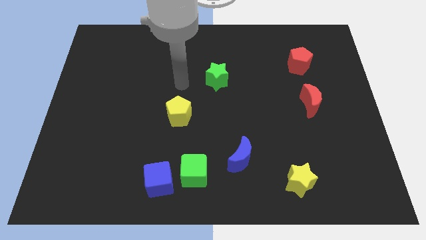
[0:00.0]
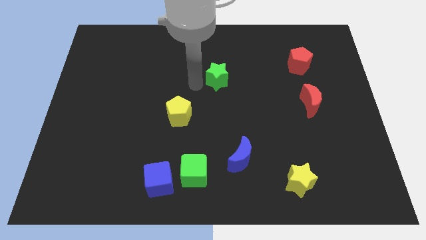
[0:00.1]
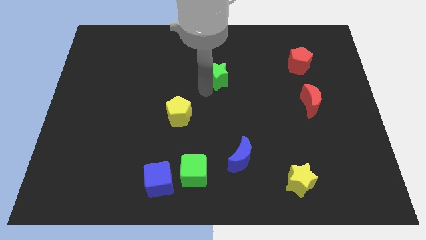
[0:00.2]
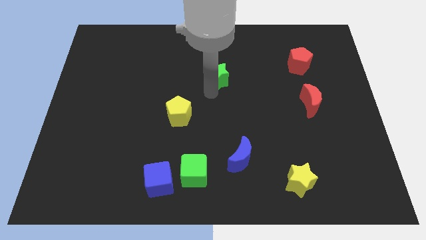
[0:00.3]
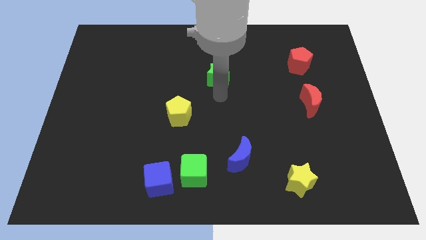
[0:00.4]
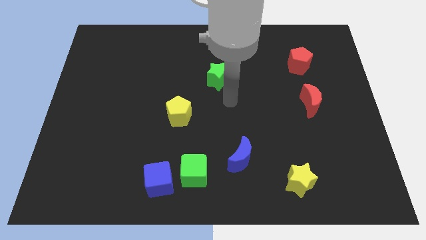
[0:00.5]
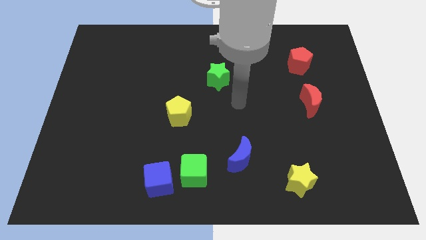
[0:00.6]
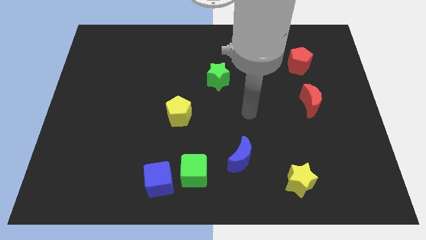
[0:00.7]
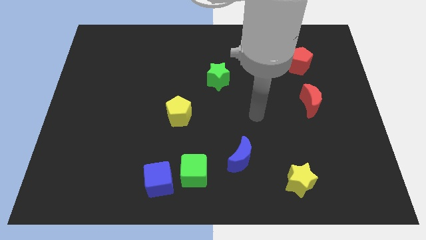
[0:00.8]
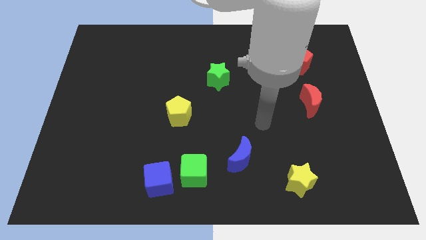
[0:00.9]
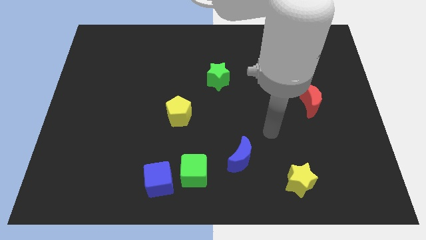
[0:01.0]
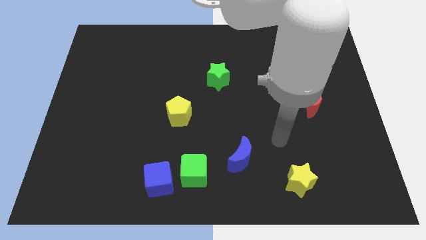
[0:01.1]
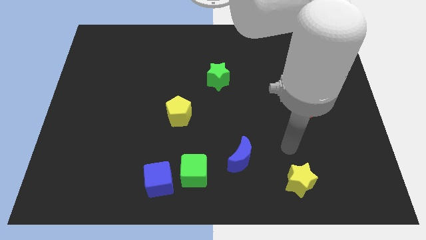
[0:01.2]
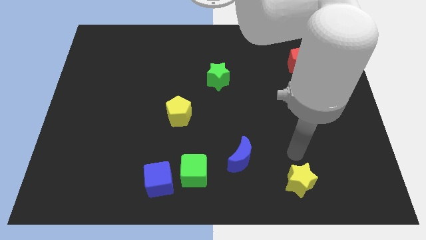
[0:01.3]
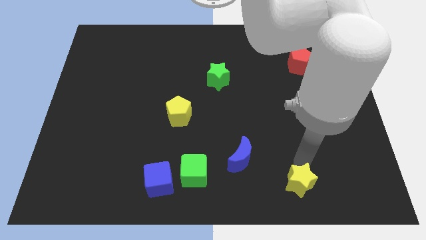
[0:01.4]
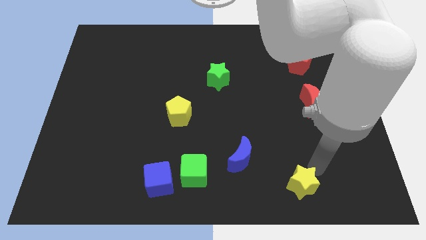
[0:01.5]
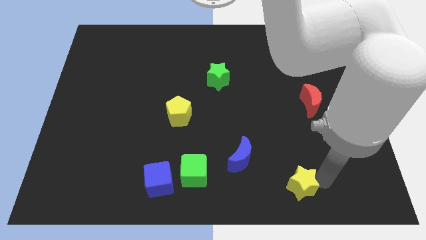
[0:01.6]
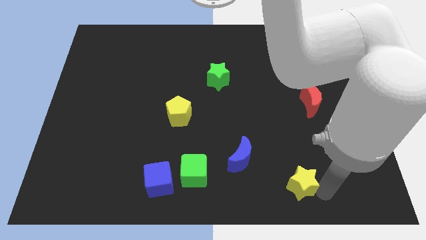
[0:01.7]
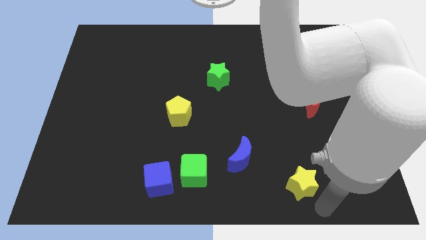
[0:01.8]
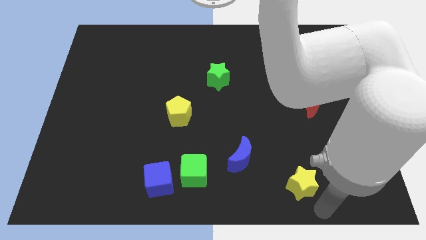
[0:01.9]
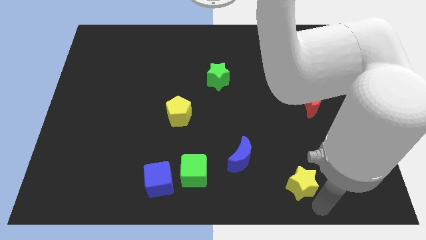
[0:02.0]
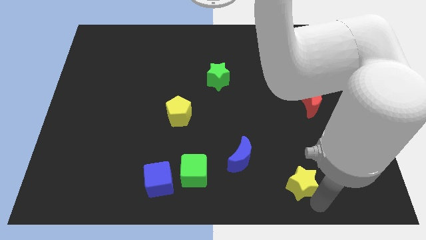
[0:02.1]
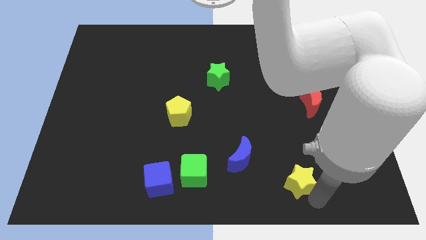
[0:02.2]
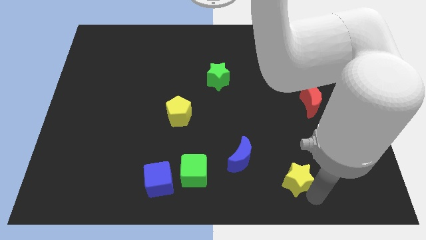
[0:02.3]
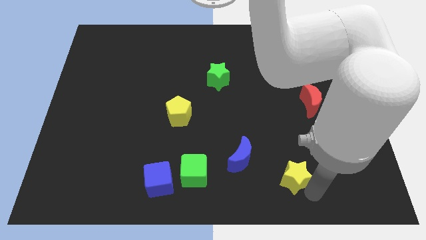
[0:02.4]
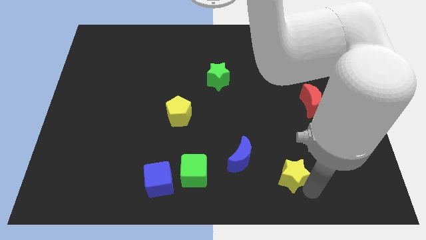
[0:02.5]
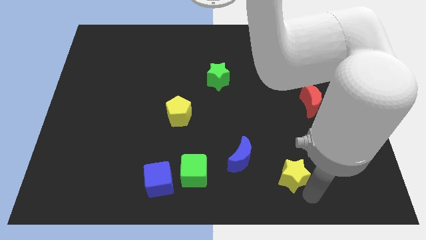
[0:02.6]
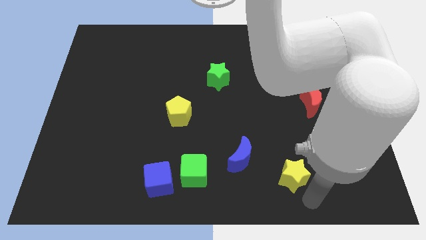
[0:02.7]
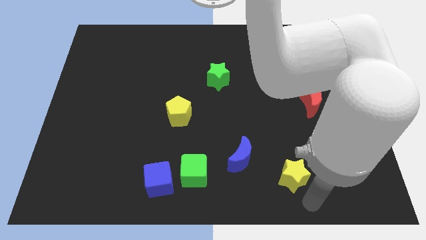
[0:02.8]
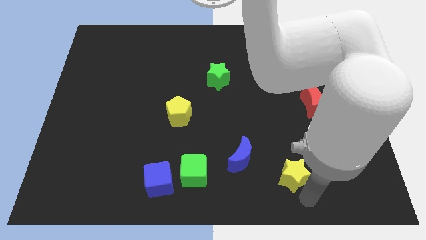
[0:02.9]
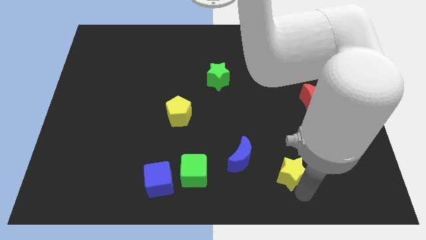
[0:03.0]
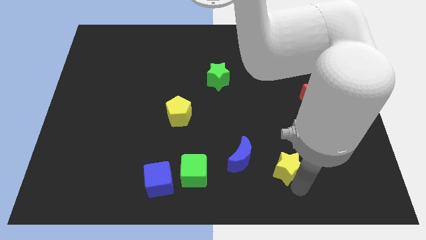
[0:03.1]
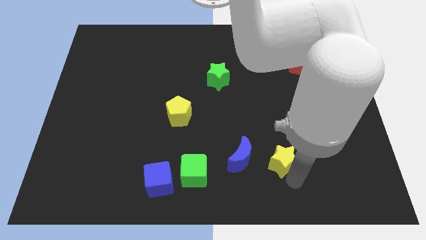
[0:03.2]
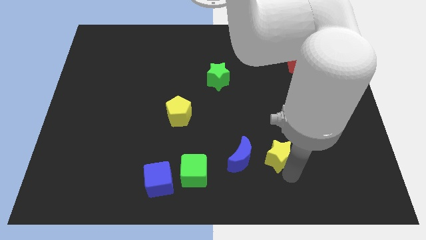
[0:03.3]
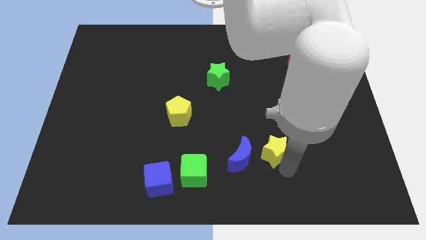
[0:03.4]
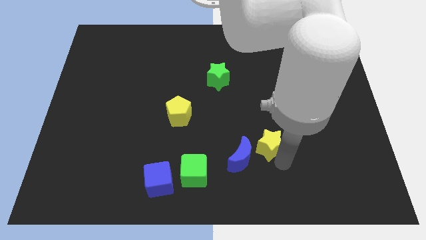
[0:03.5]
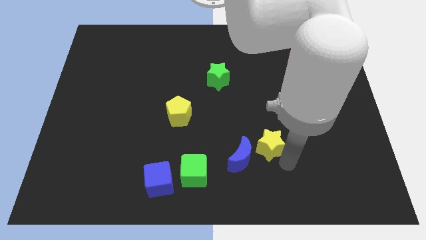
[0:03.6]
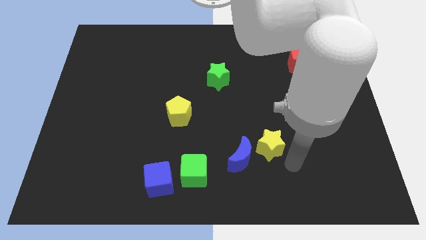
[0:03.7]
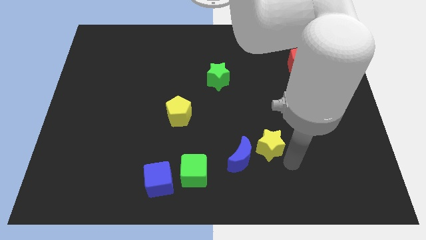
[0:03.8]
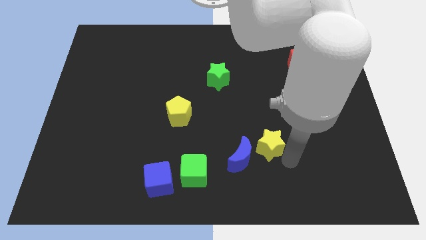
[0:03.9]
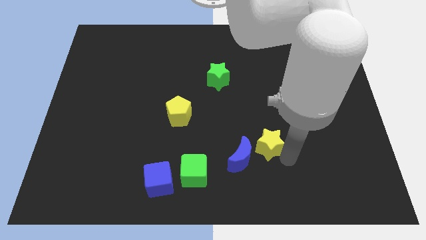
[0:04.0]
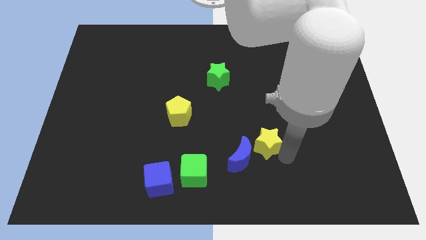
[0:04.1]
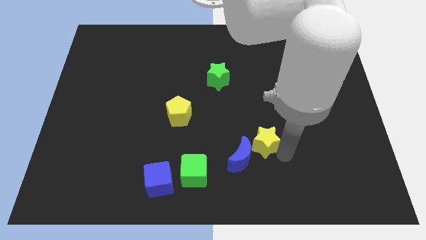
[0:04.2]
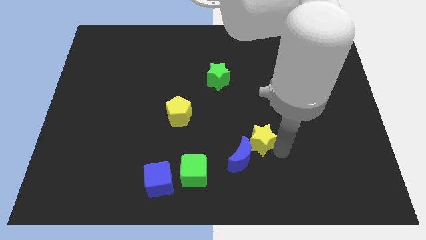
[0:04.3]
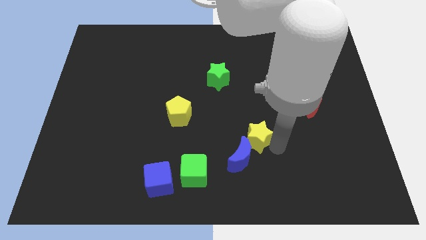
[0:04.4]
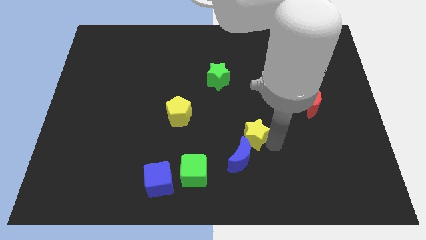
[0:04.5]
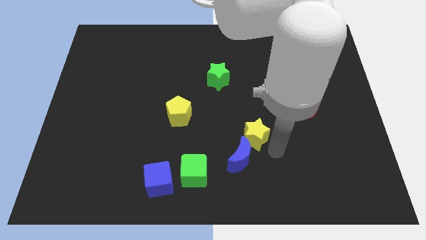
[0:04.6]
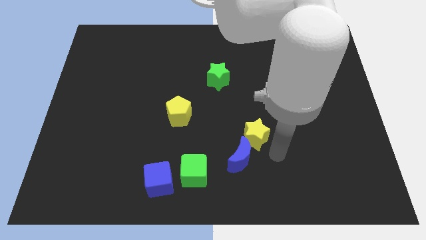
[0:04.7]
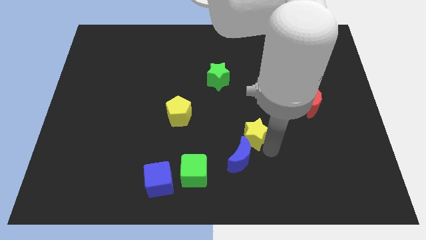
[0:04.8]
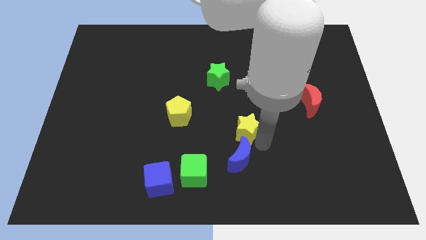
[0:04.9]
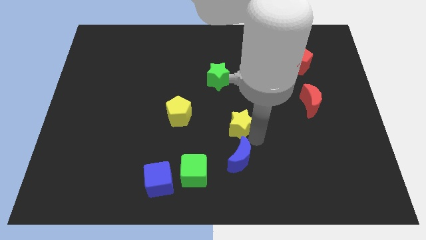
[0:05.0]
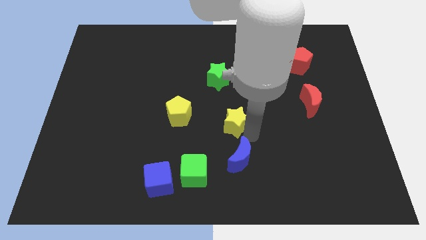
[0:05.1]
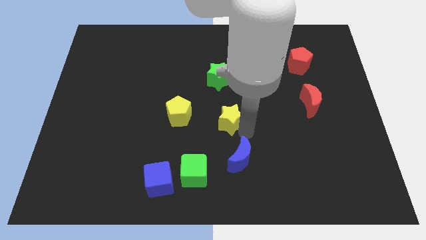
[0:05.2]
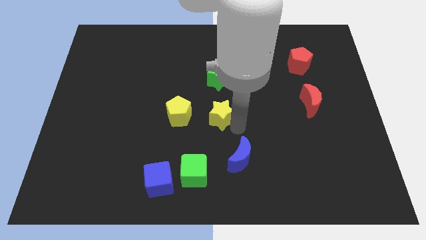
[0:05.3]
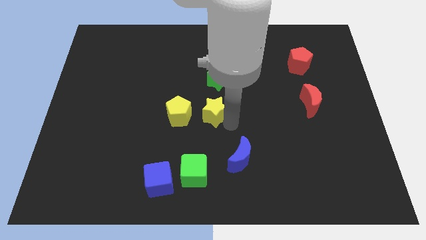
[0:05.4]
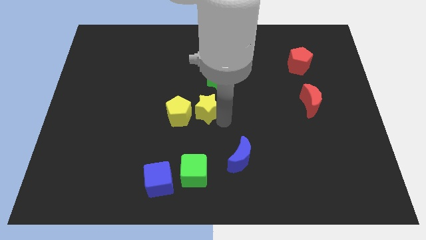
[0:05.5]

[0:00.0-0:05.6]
slide the yellow star diagonally up and to the right of the yellow pentagon

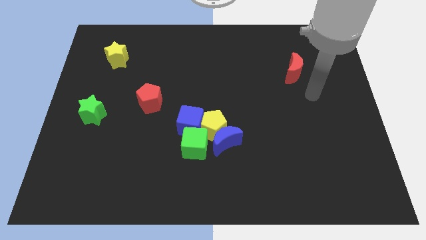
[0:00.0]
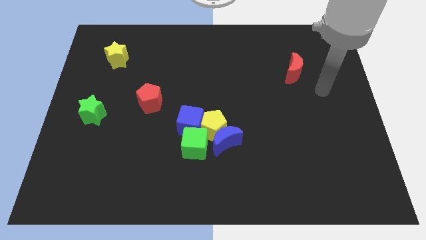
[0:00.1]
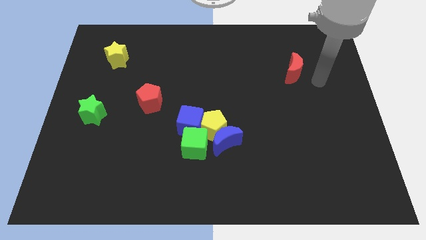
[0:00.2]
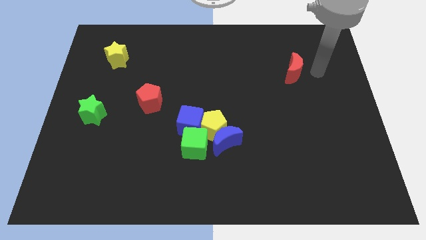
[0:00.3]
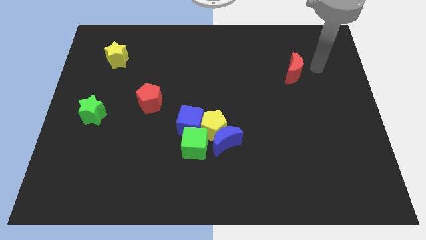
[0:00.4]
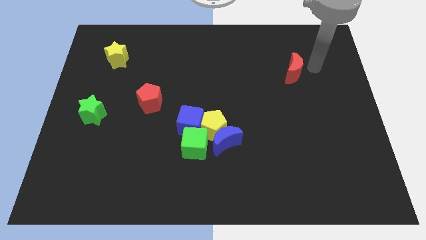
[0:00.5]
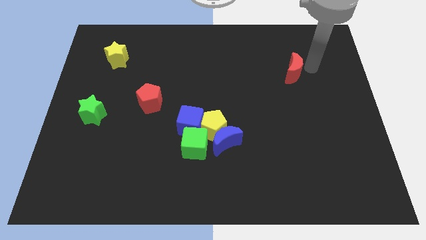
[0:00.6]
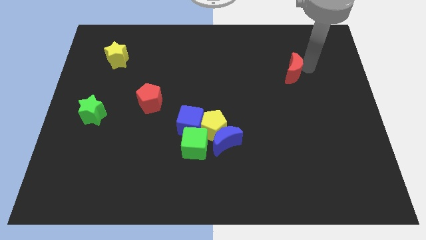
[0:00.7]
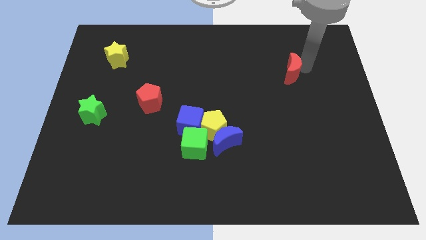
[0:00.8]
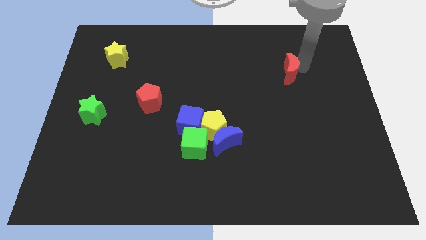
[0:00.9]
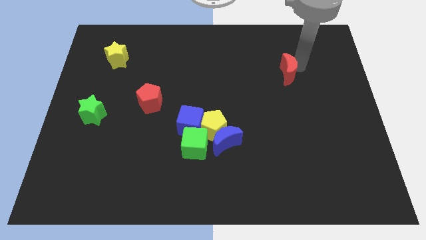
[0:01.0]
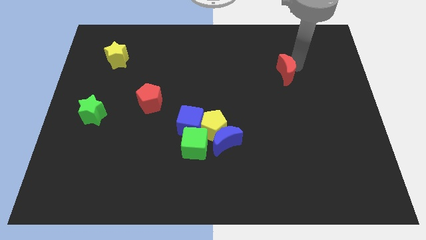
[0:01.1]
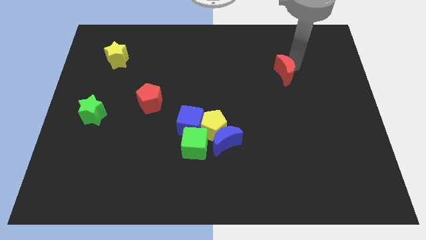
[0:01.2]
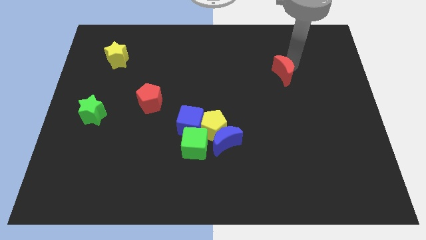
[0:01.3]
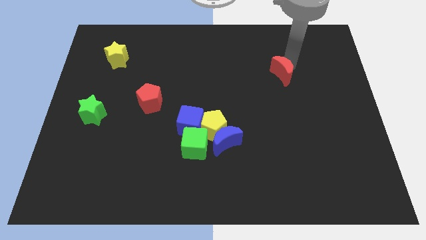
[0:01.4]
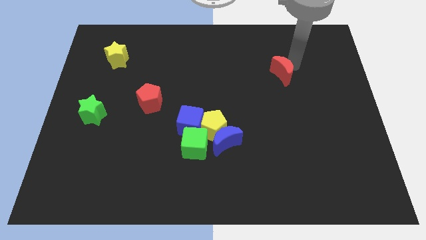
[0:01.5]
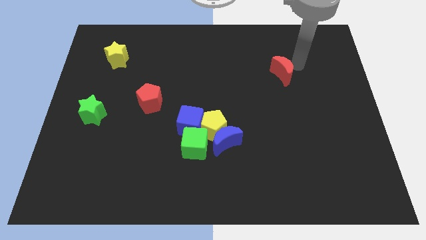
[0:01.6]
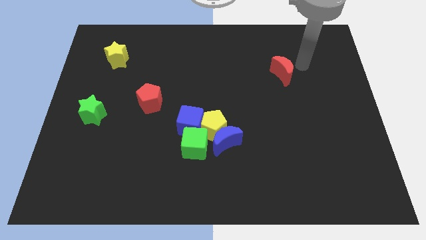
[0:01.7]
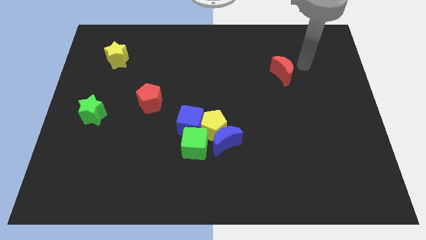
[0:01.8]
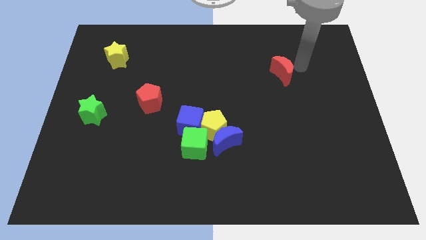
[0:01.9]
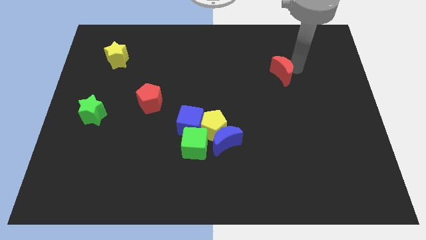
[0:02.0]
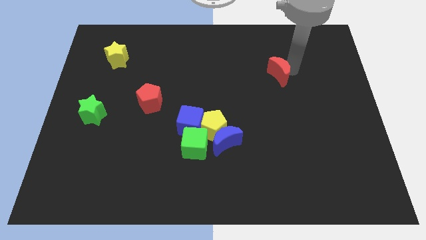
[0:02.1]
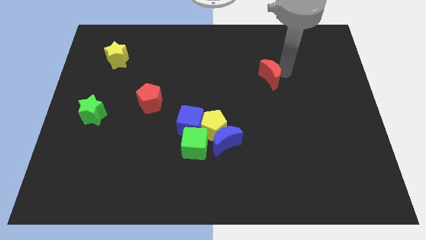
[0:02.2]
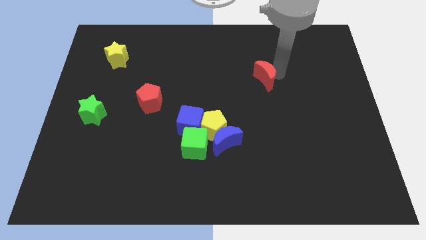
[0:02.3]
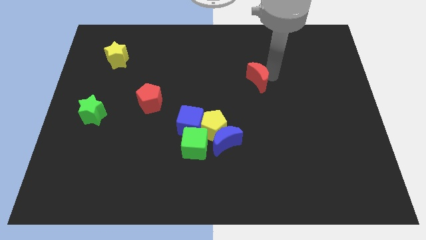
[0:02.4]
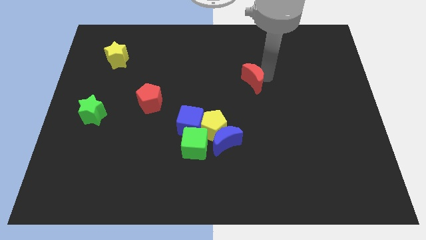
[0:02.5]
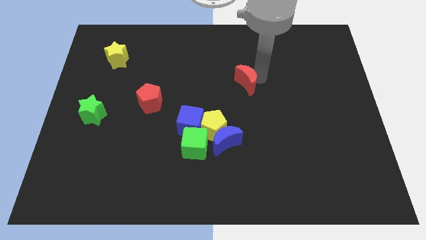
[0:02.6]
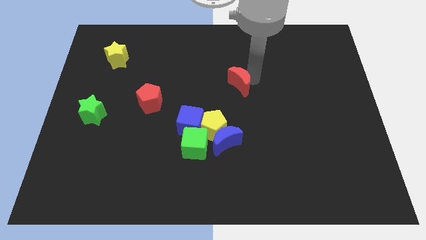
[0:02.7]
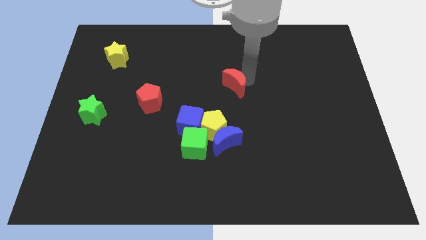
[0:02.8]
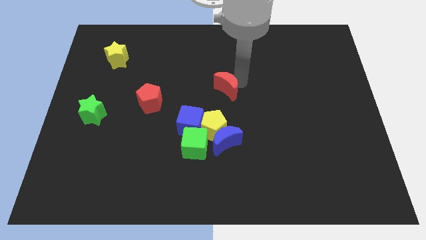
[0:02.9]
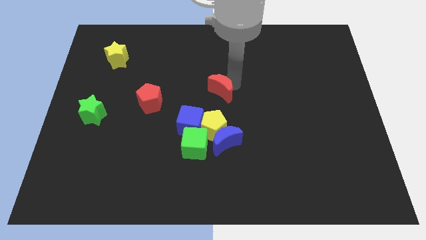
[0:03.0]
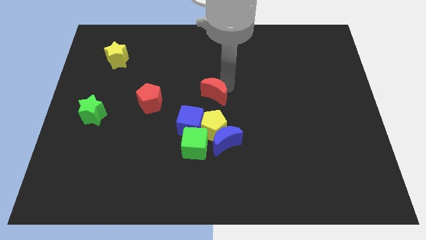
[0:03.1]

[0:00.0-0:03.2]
slide the red moon to the right of the red pentagon
